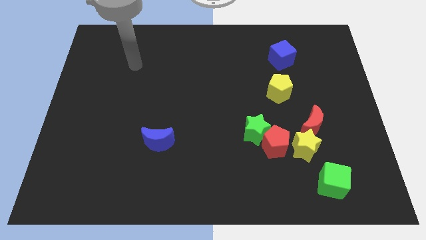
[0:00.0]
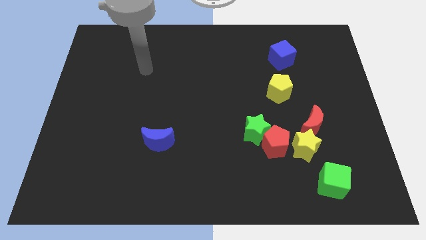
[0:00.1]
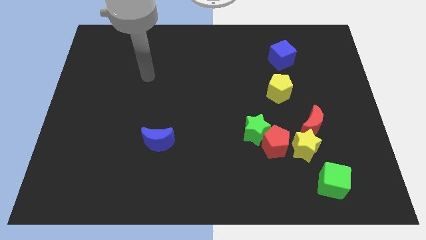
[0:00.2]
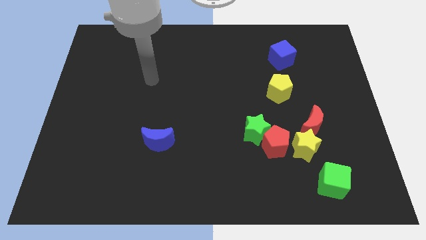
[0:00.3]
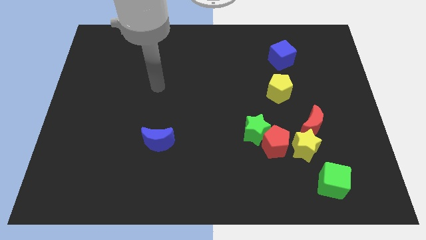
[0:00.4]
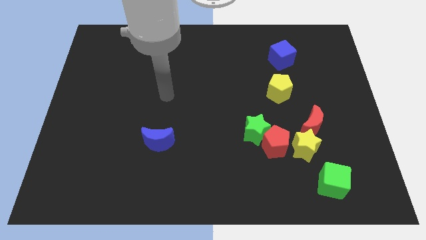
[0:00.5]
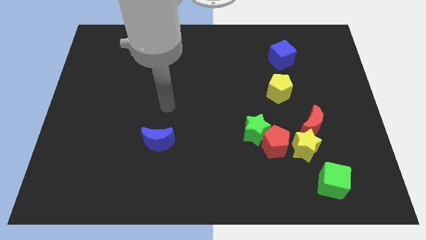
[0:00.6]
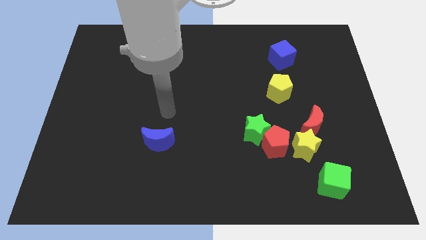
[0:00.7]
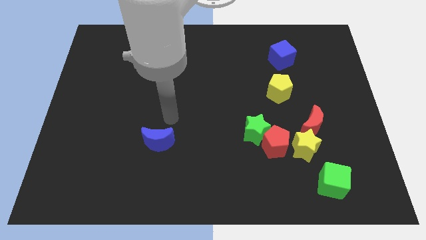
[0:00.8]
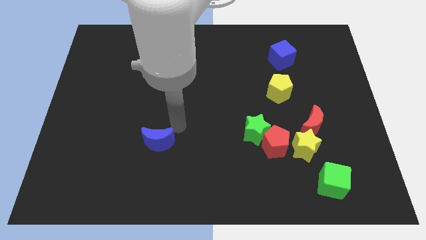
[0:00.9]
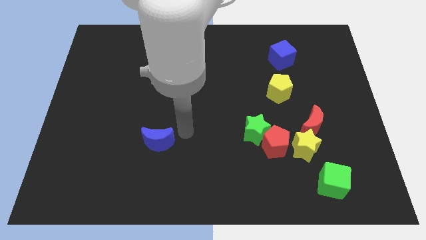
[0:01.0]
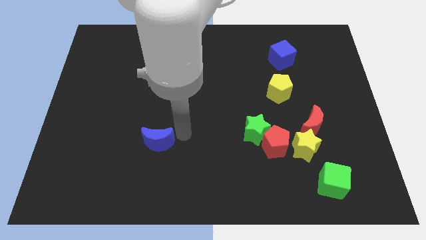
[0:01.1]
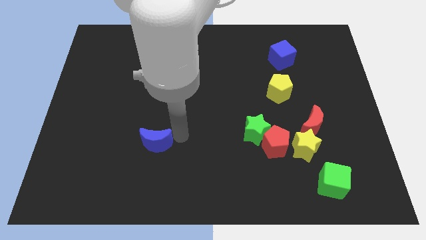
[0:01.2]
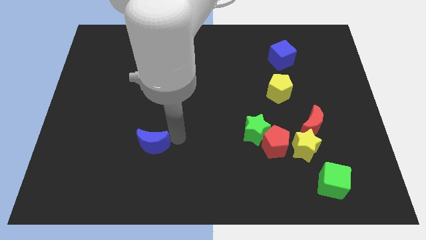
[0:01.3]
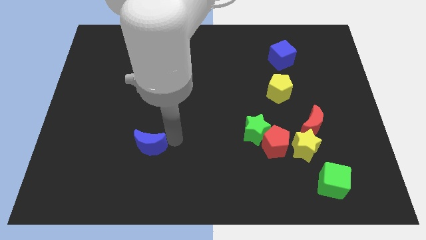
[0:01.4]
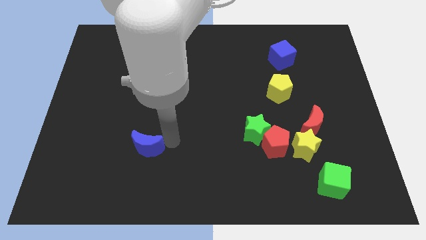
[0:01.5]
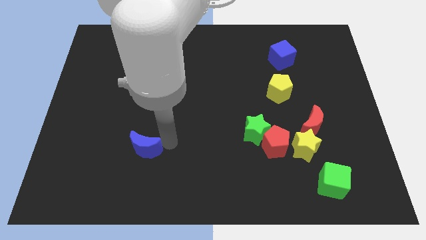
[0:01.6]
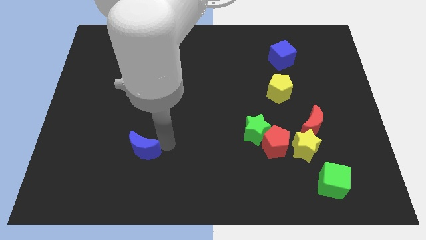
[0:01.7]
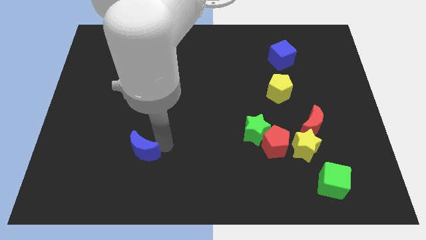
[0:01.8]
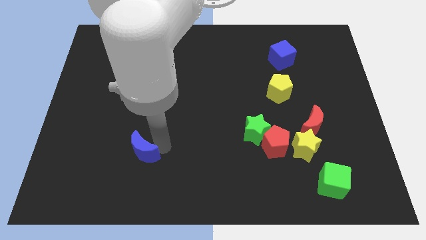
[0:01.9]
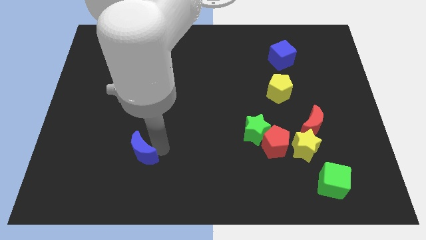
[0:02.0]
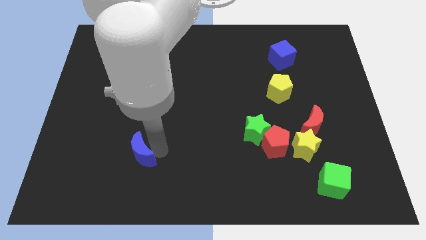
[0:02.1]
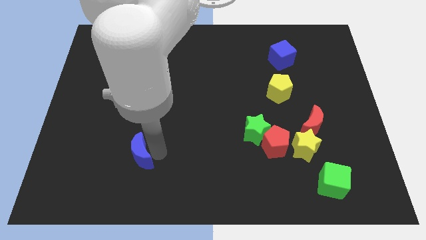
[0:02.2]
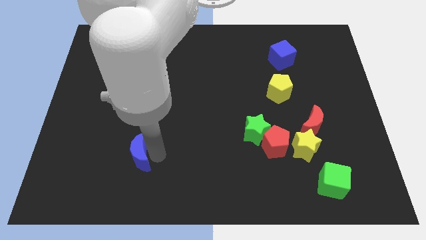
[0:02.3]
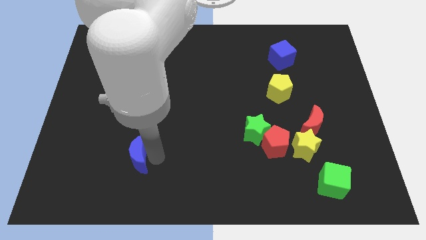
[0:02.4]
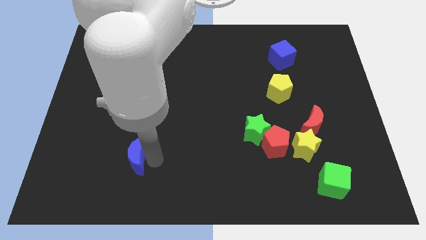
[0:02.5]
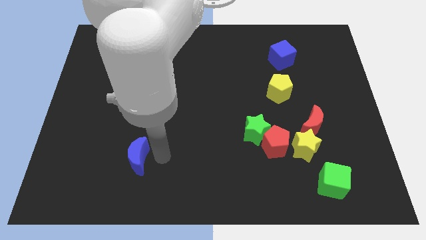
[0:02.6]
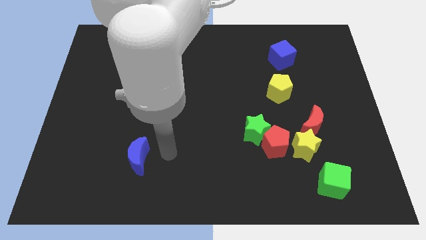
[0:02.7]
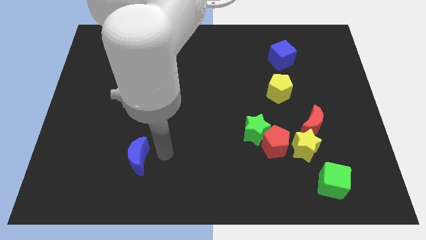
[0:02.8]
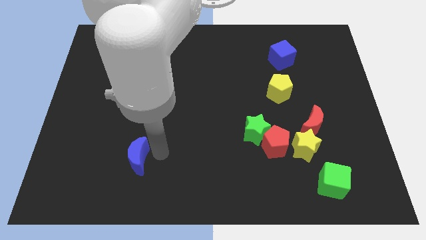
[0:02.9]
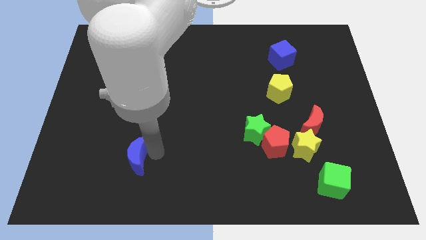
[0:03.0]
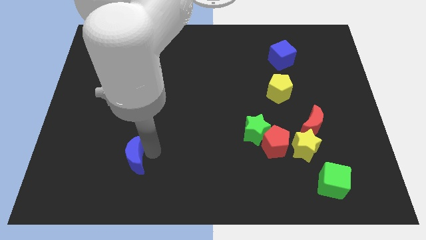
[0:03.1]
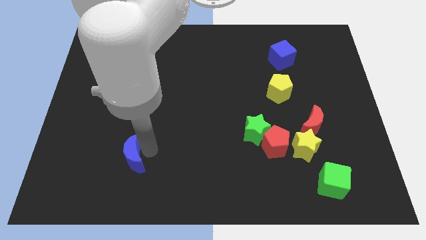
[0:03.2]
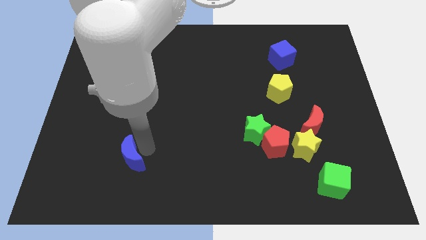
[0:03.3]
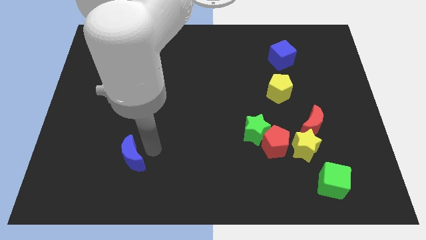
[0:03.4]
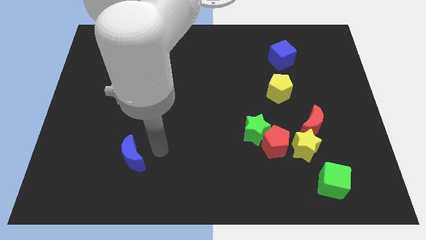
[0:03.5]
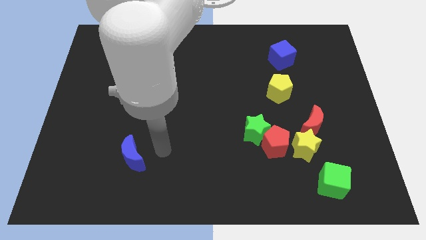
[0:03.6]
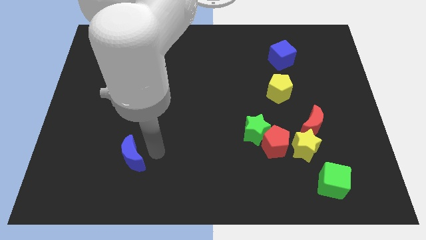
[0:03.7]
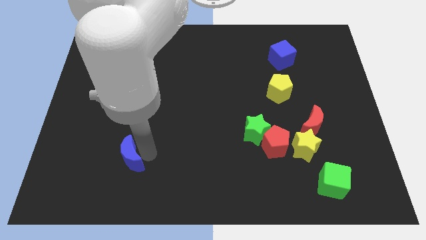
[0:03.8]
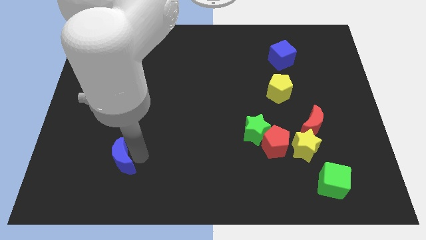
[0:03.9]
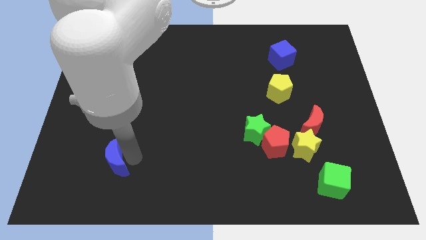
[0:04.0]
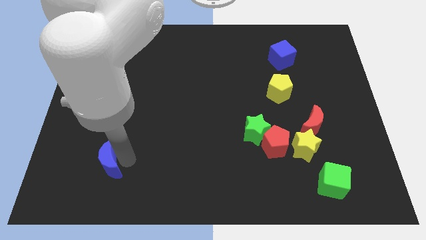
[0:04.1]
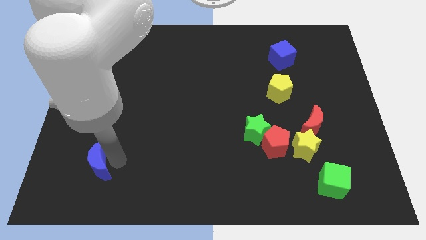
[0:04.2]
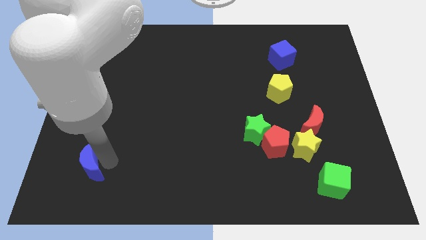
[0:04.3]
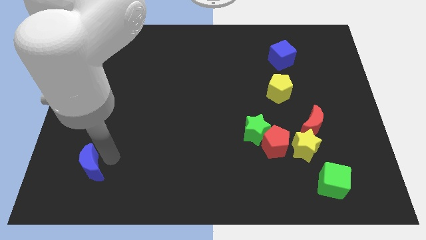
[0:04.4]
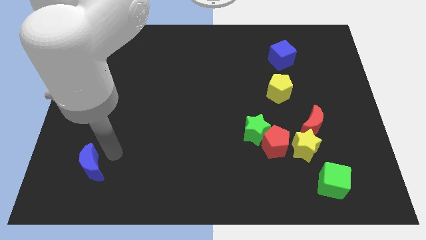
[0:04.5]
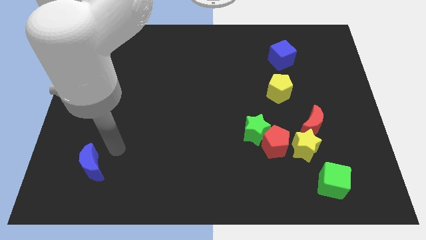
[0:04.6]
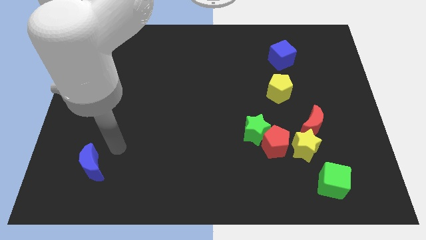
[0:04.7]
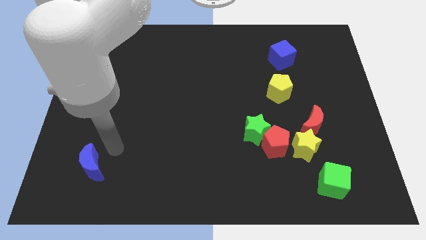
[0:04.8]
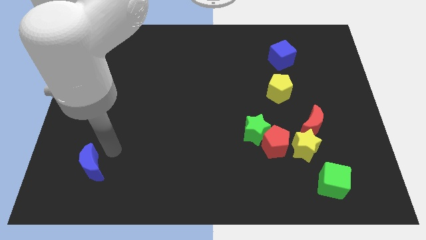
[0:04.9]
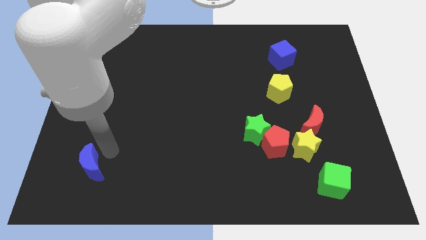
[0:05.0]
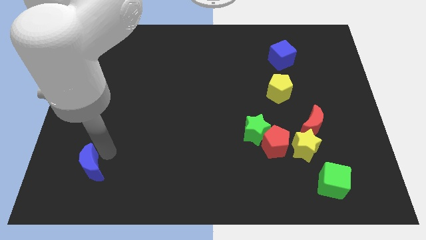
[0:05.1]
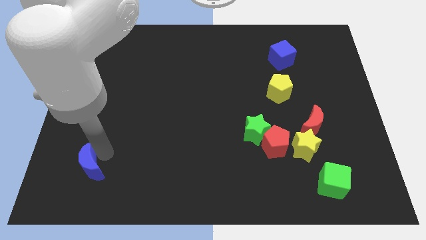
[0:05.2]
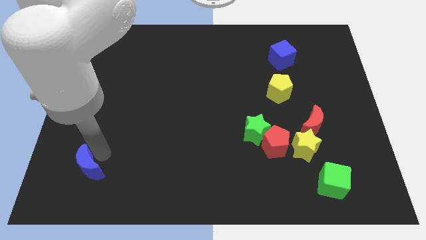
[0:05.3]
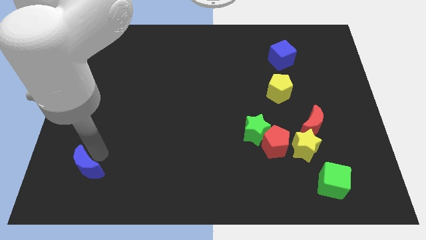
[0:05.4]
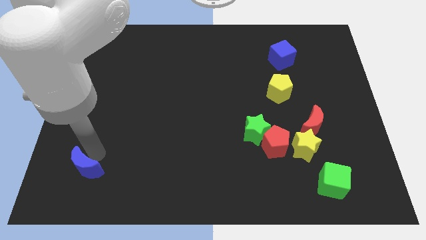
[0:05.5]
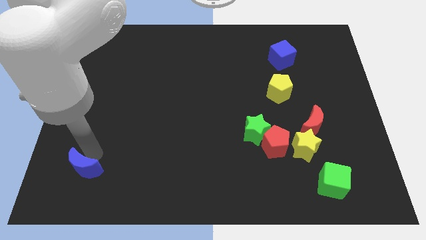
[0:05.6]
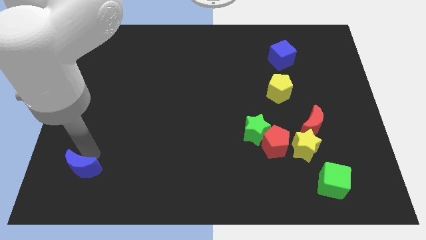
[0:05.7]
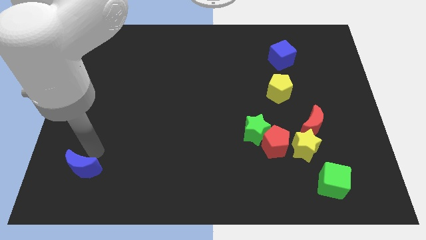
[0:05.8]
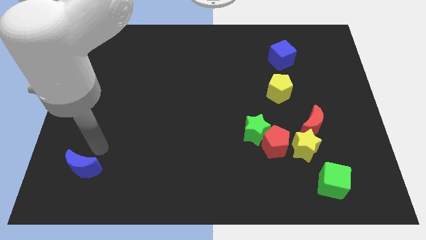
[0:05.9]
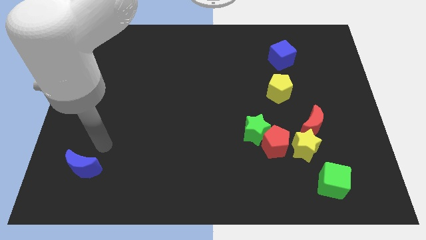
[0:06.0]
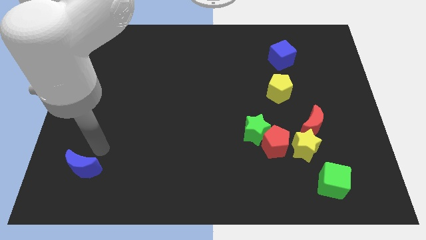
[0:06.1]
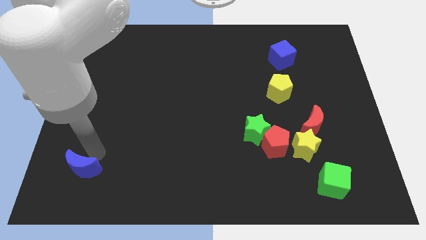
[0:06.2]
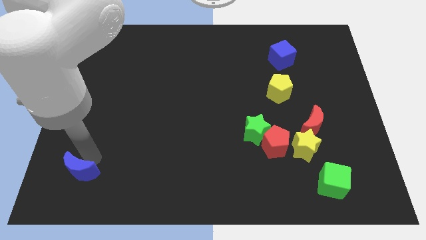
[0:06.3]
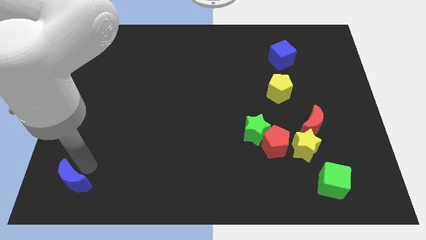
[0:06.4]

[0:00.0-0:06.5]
move the blue moon to the bottom left corner

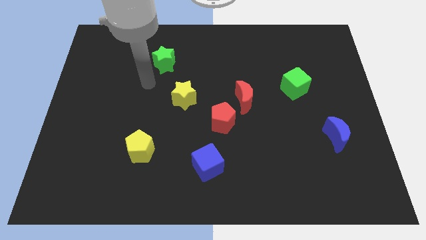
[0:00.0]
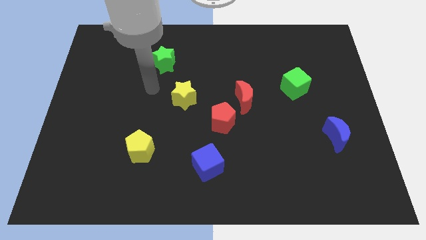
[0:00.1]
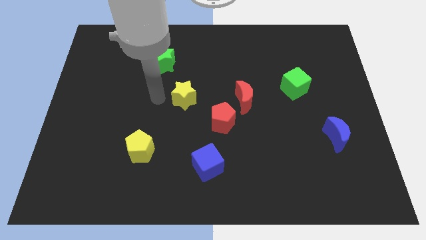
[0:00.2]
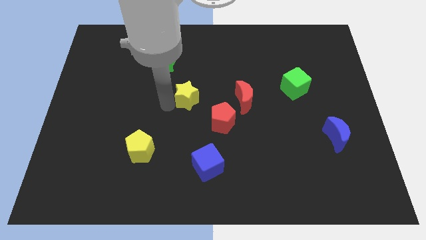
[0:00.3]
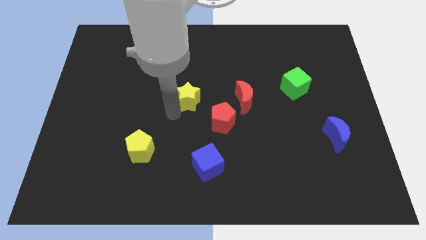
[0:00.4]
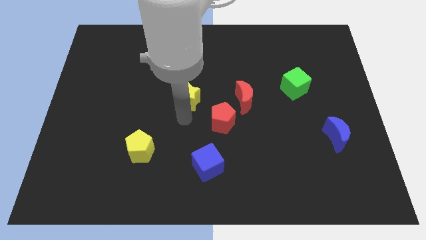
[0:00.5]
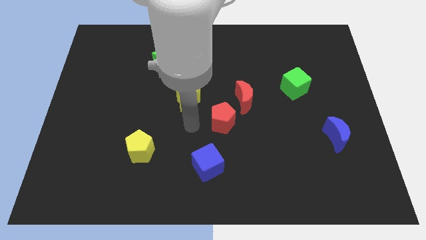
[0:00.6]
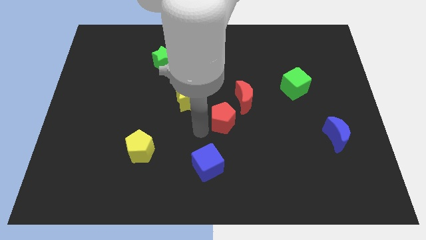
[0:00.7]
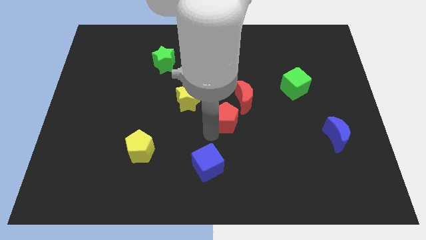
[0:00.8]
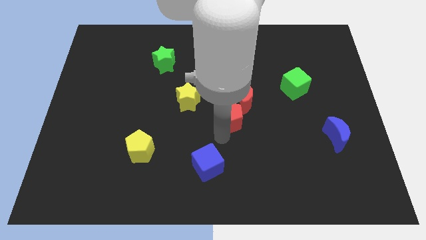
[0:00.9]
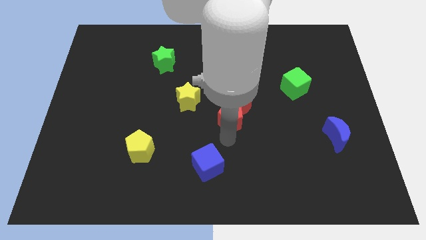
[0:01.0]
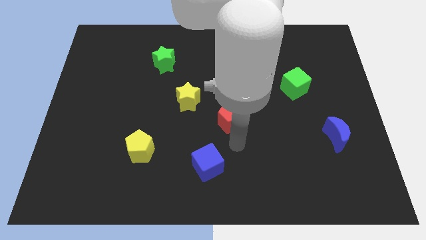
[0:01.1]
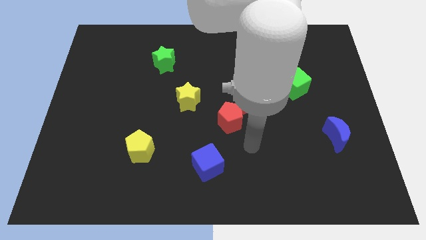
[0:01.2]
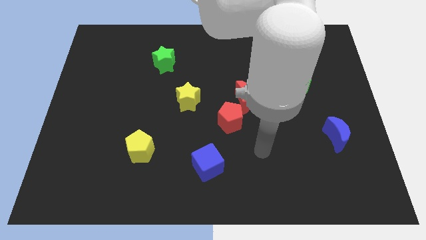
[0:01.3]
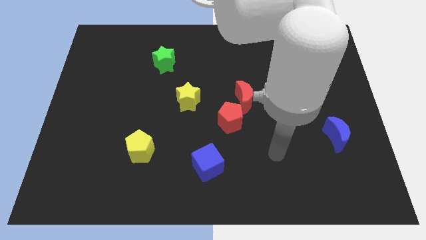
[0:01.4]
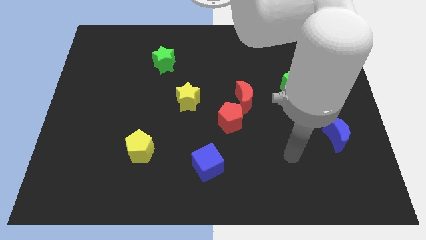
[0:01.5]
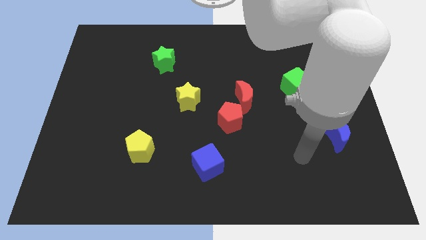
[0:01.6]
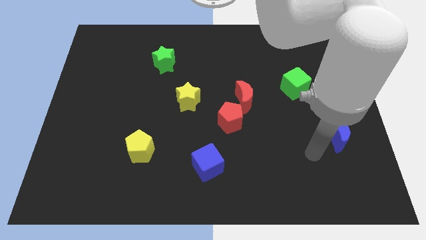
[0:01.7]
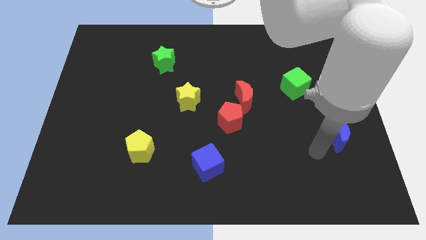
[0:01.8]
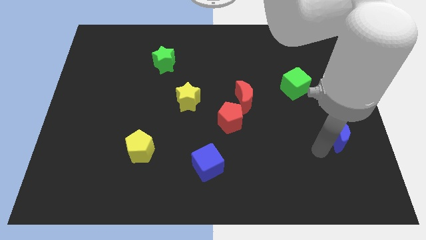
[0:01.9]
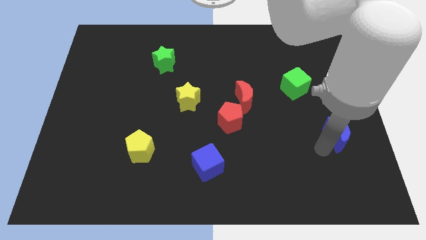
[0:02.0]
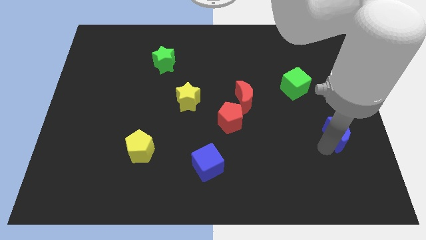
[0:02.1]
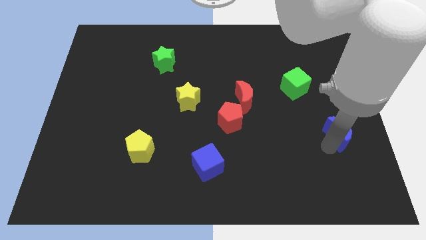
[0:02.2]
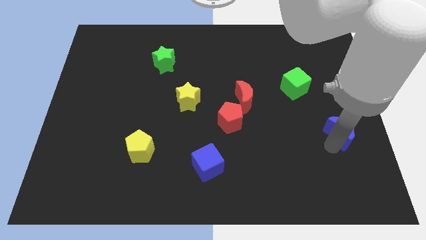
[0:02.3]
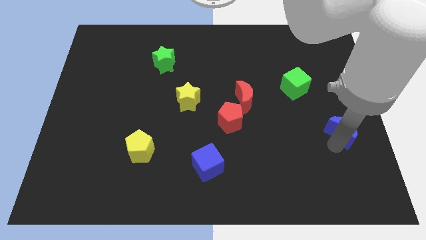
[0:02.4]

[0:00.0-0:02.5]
move the blue moon to the center right
